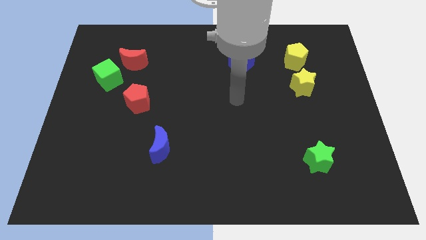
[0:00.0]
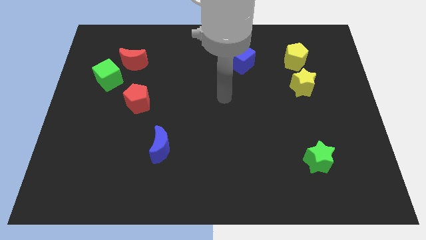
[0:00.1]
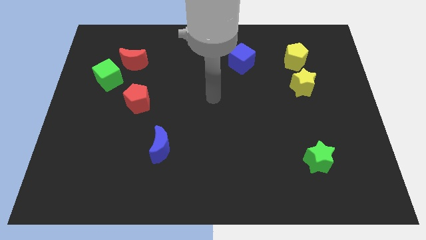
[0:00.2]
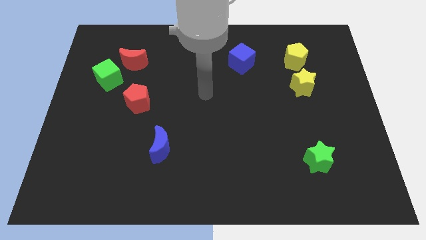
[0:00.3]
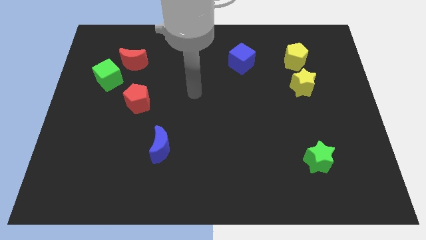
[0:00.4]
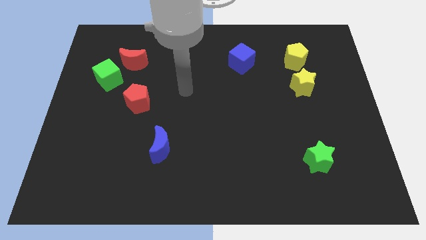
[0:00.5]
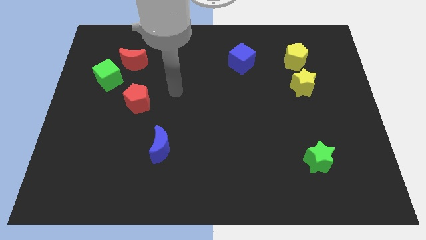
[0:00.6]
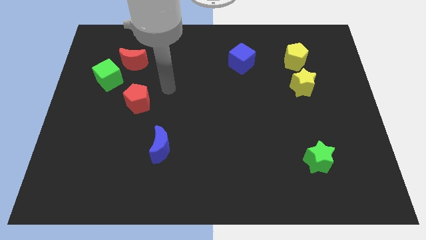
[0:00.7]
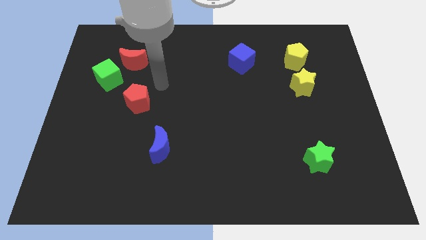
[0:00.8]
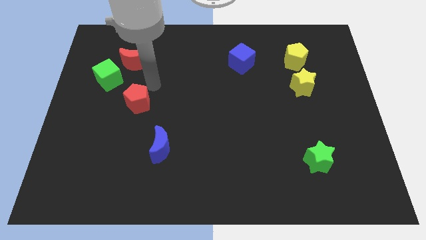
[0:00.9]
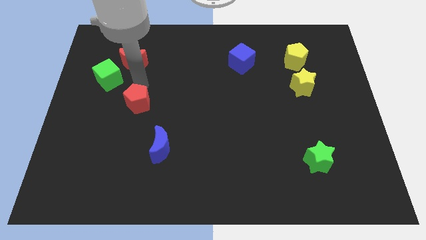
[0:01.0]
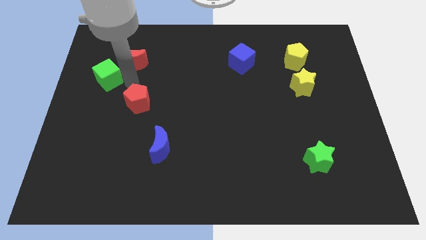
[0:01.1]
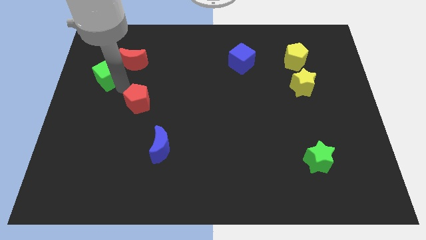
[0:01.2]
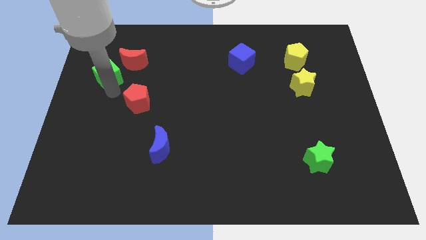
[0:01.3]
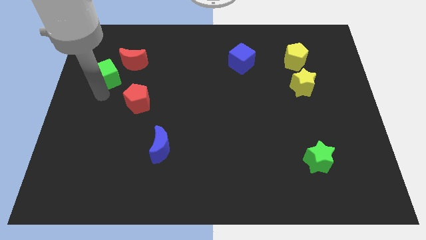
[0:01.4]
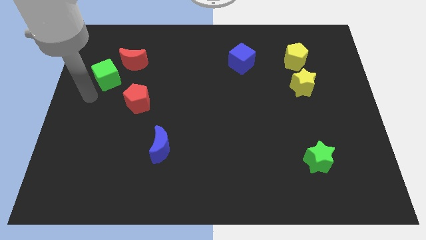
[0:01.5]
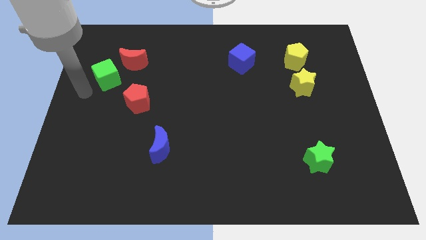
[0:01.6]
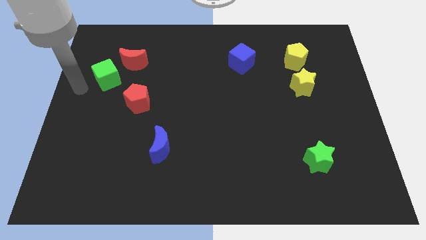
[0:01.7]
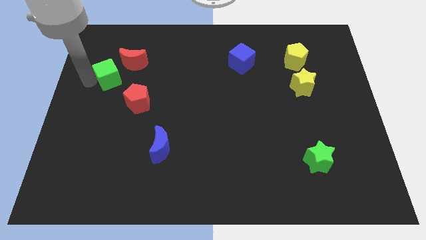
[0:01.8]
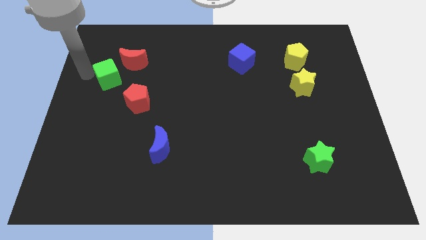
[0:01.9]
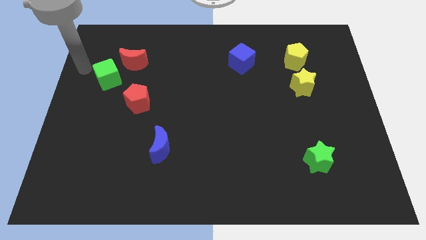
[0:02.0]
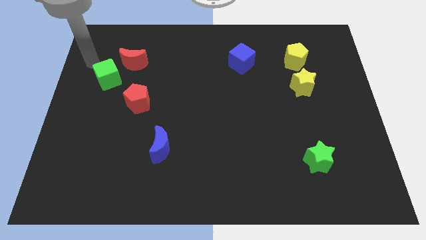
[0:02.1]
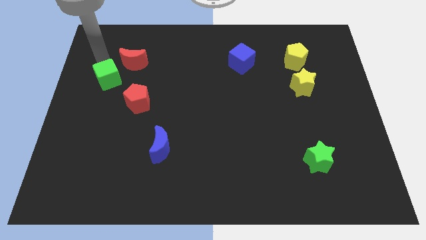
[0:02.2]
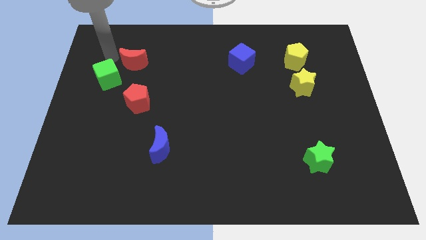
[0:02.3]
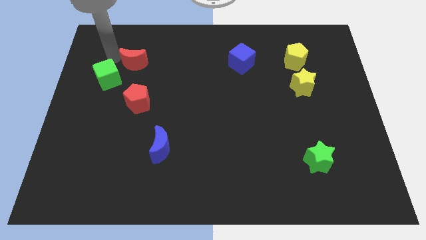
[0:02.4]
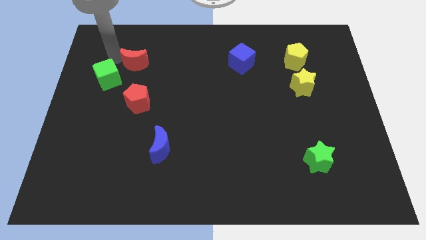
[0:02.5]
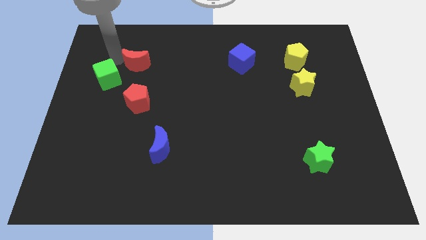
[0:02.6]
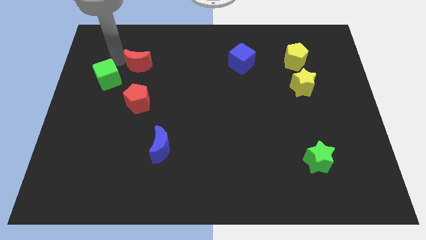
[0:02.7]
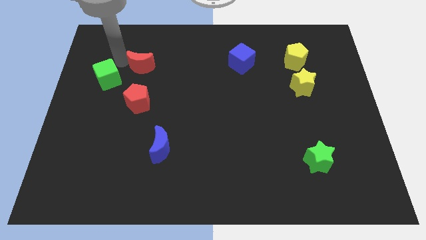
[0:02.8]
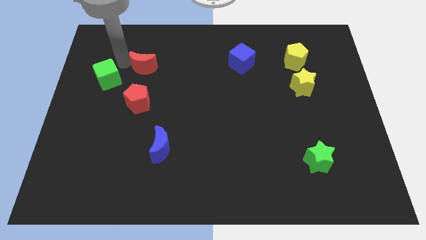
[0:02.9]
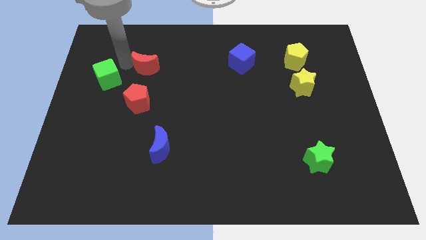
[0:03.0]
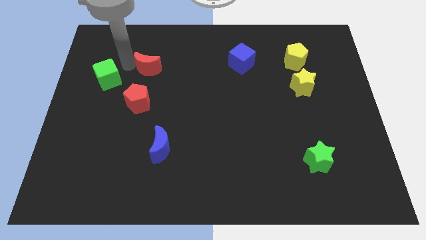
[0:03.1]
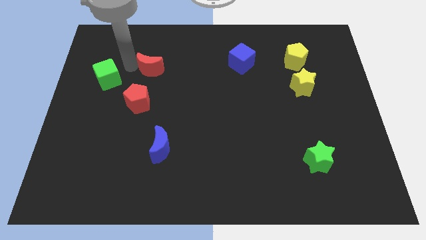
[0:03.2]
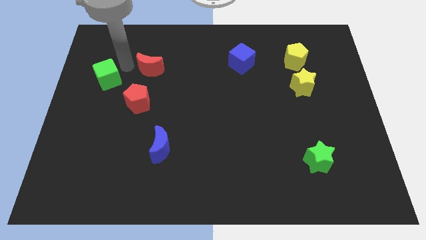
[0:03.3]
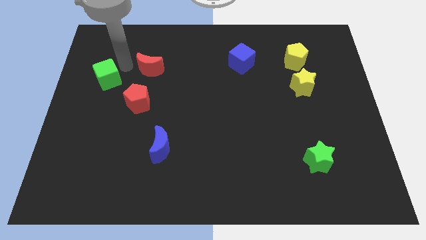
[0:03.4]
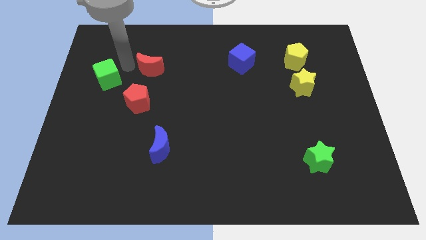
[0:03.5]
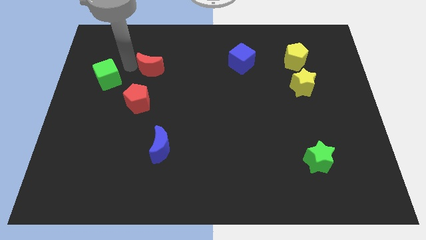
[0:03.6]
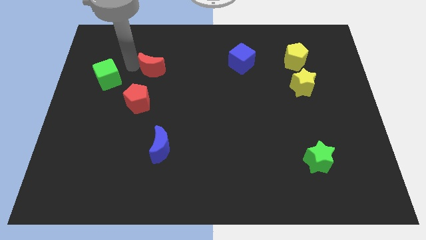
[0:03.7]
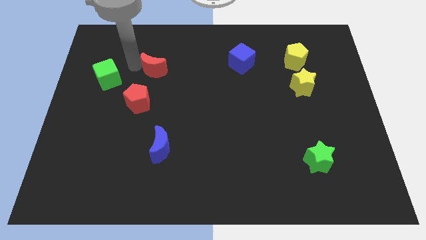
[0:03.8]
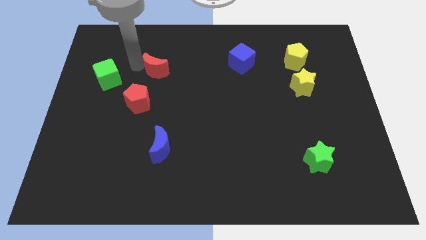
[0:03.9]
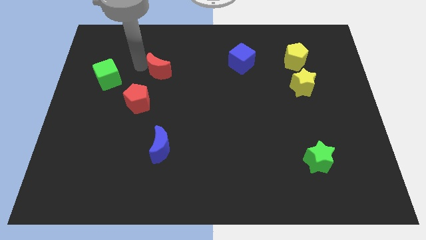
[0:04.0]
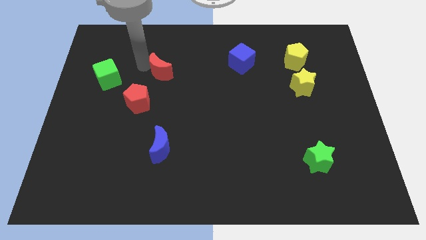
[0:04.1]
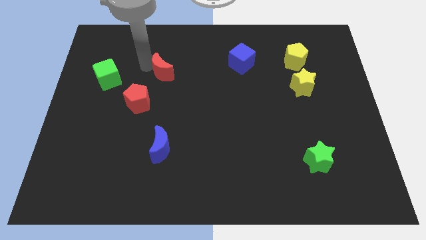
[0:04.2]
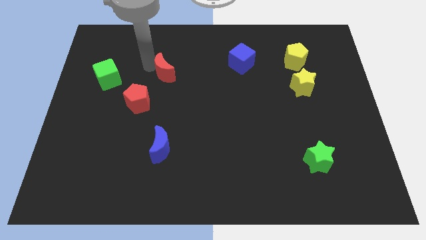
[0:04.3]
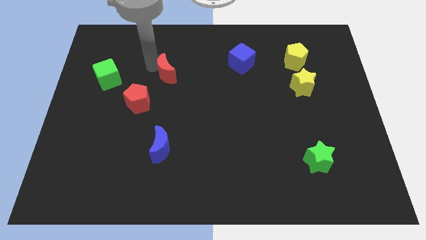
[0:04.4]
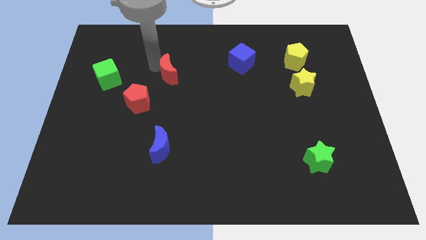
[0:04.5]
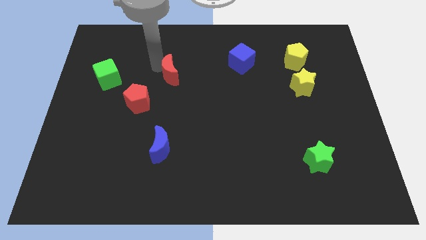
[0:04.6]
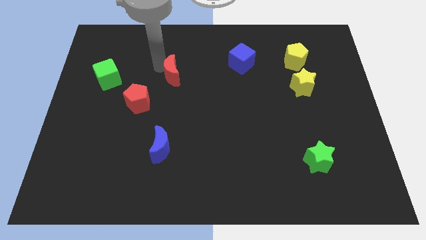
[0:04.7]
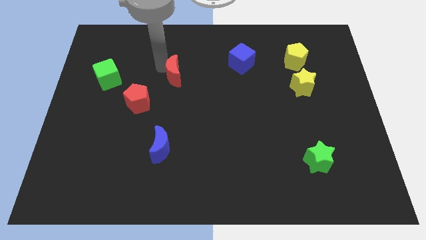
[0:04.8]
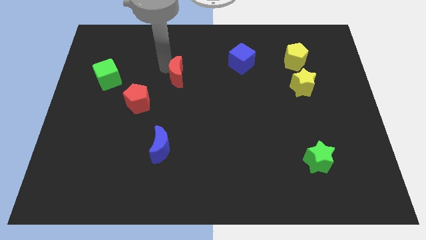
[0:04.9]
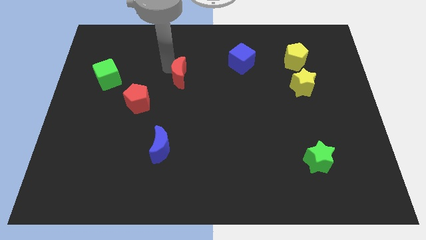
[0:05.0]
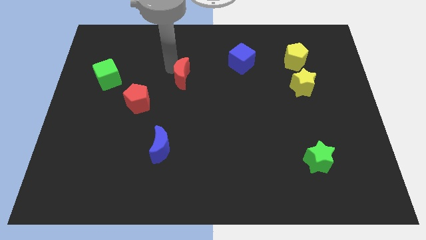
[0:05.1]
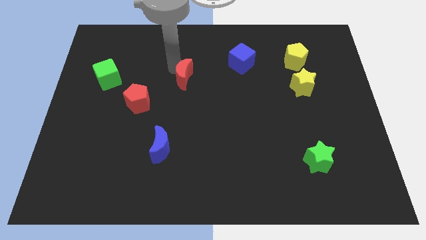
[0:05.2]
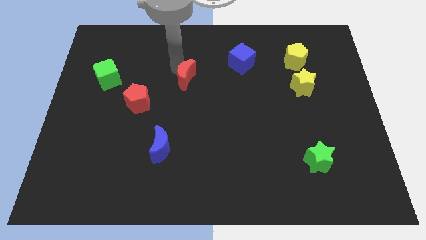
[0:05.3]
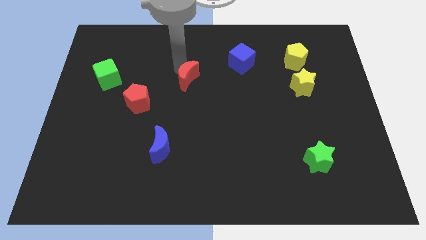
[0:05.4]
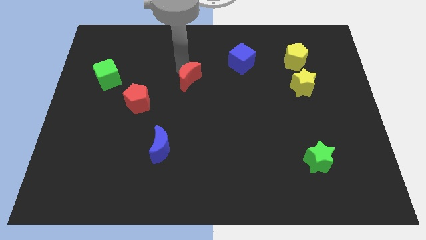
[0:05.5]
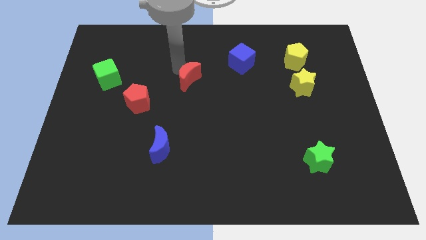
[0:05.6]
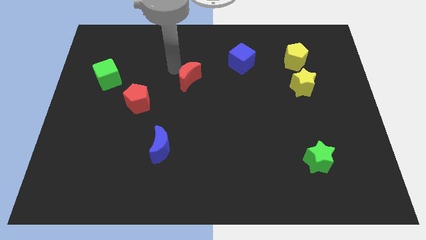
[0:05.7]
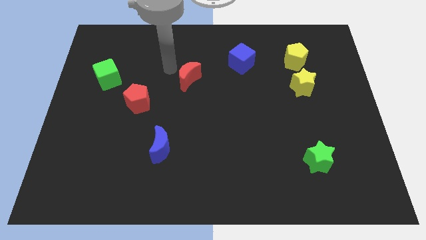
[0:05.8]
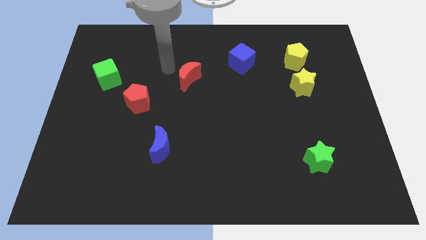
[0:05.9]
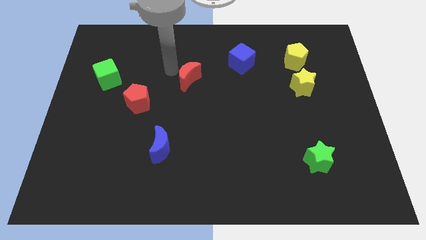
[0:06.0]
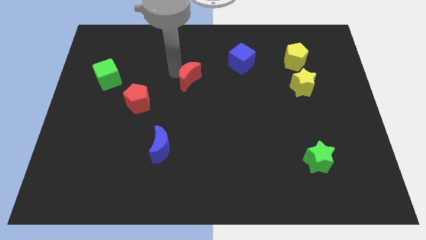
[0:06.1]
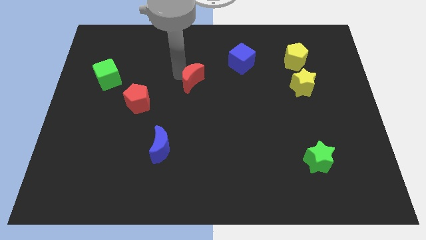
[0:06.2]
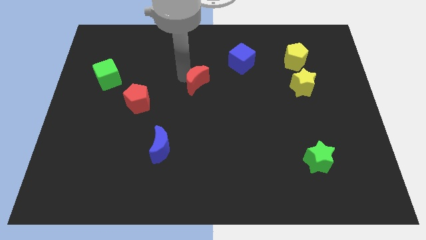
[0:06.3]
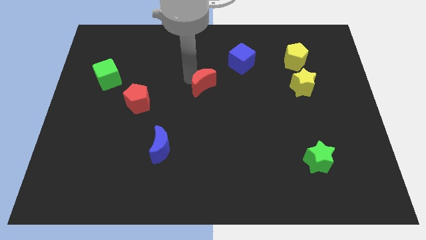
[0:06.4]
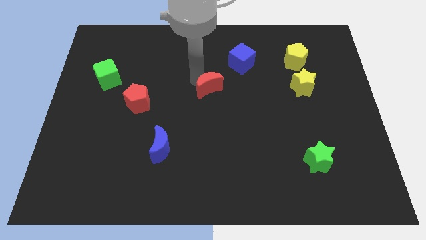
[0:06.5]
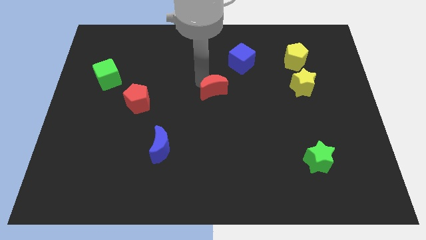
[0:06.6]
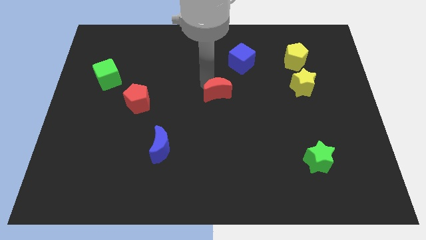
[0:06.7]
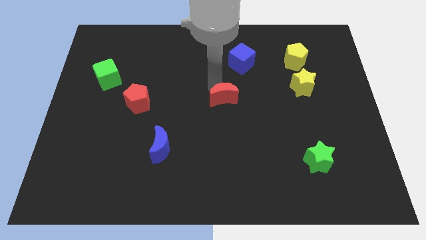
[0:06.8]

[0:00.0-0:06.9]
slide the red moon diagonally downwards and right

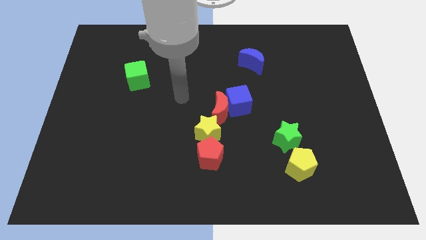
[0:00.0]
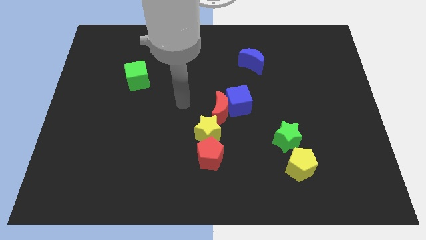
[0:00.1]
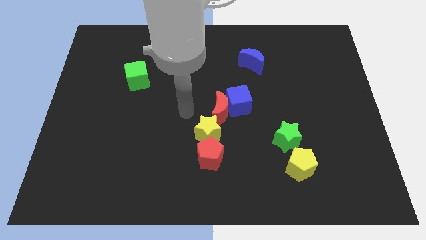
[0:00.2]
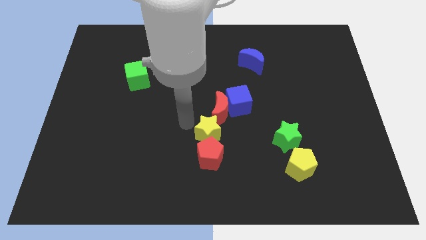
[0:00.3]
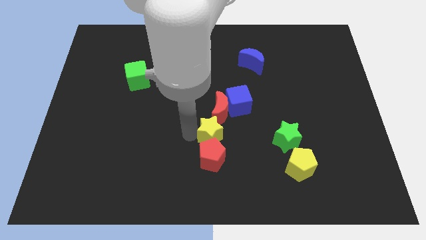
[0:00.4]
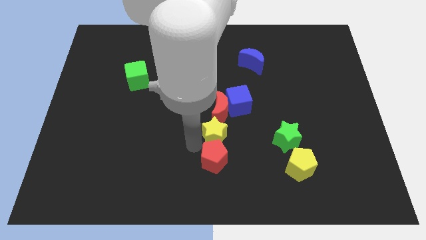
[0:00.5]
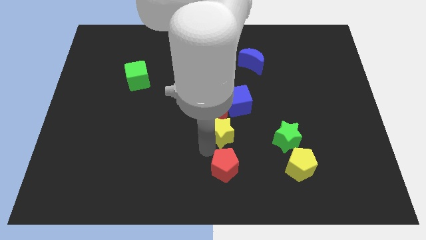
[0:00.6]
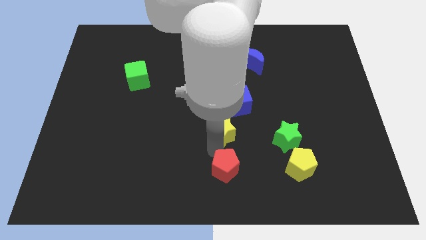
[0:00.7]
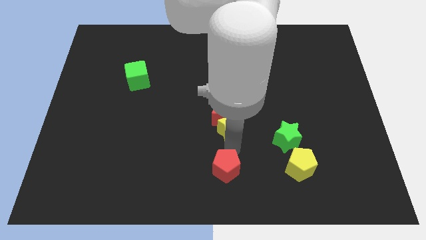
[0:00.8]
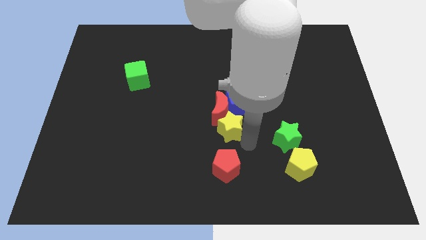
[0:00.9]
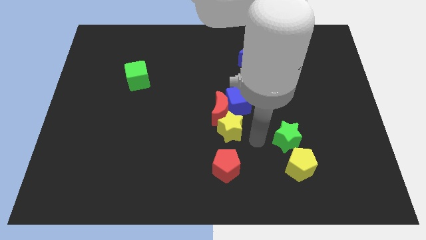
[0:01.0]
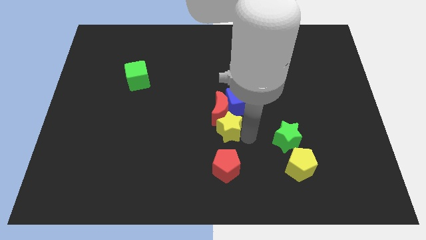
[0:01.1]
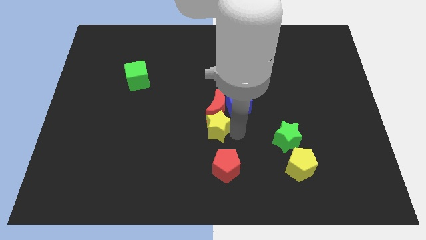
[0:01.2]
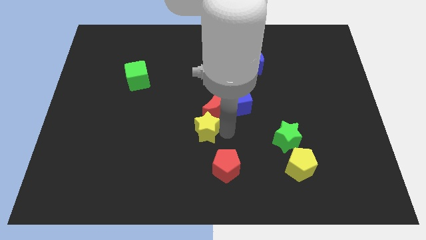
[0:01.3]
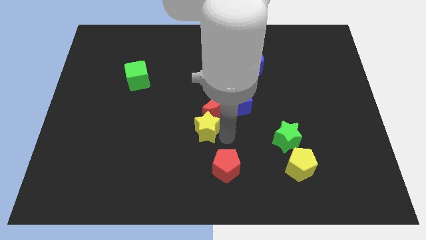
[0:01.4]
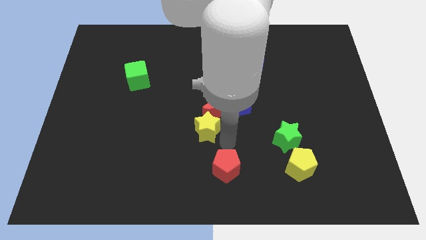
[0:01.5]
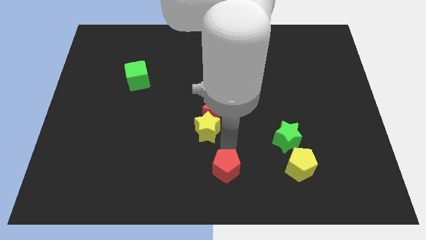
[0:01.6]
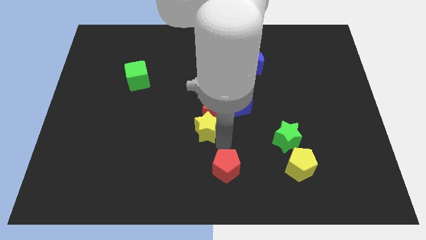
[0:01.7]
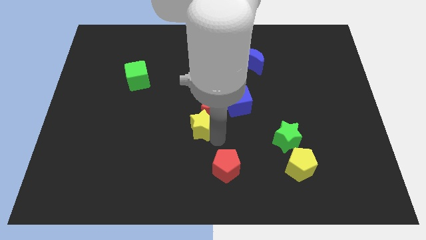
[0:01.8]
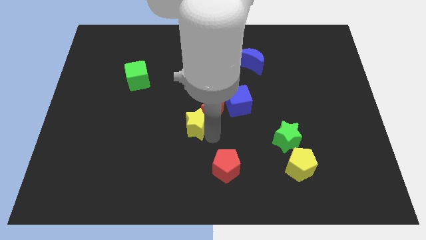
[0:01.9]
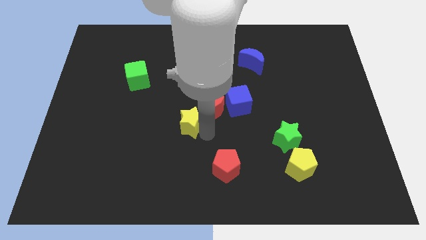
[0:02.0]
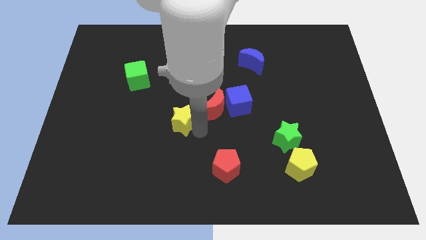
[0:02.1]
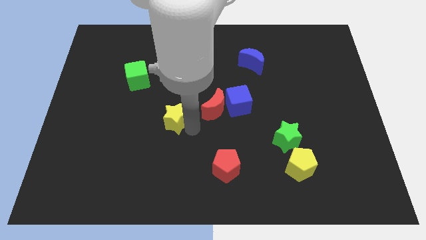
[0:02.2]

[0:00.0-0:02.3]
move the yellow star a little bit upwards and then left
